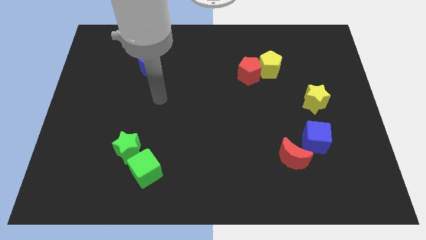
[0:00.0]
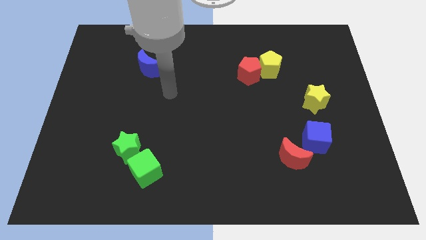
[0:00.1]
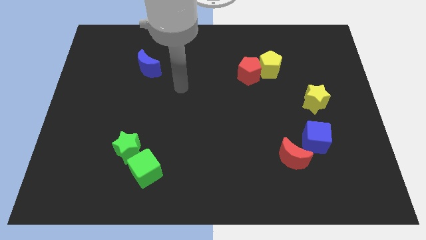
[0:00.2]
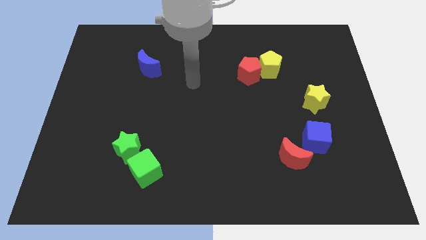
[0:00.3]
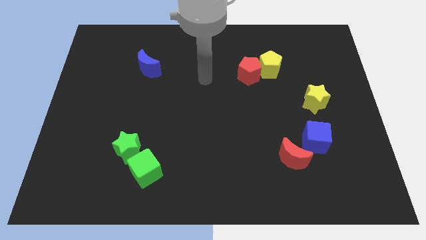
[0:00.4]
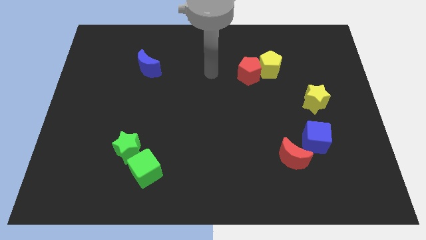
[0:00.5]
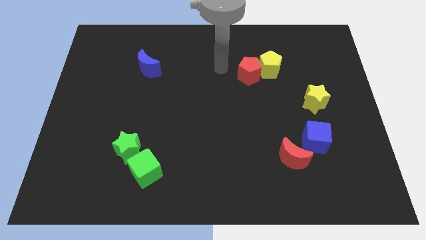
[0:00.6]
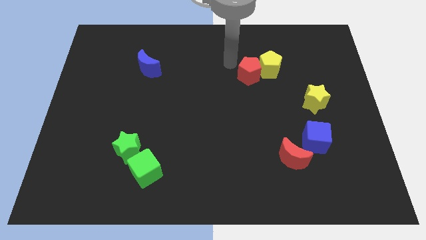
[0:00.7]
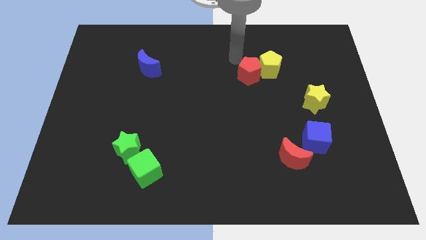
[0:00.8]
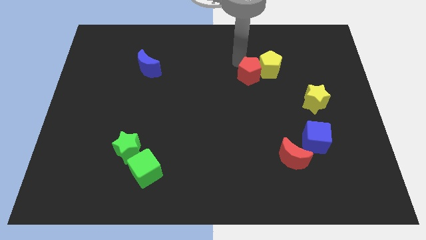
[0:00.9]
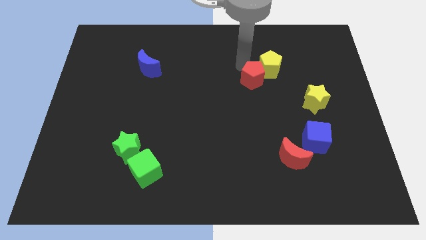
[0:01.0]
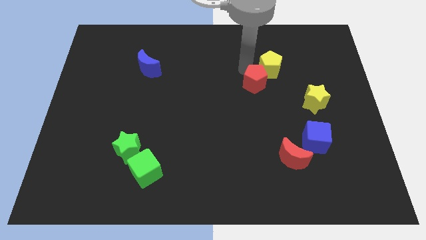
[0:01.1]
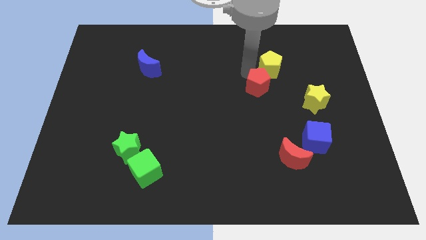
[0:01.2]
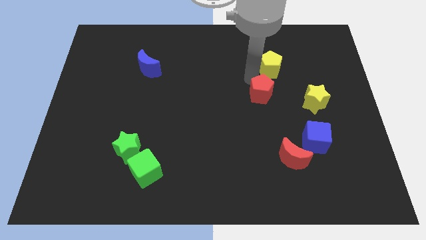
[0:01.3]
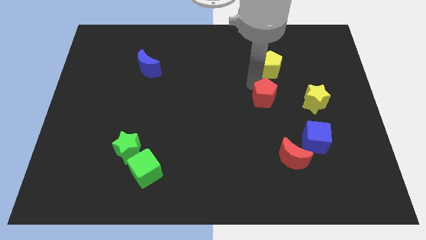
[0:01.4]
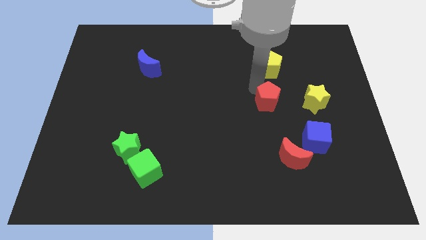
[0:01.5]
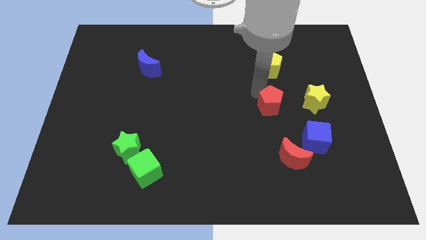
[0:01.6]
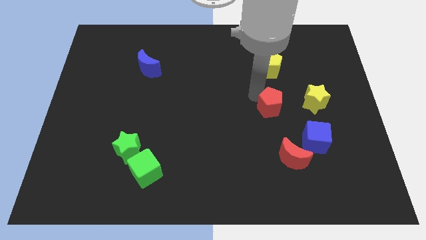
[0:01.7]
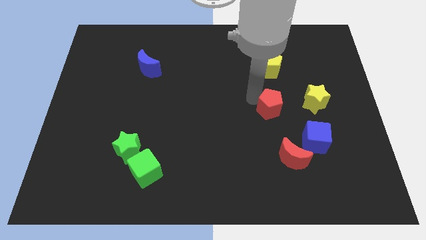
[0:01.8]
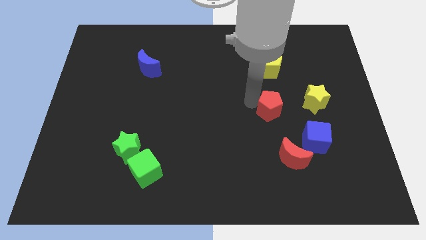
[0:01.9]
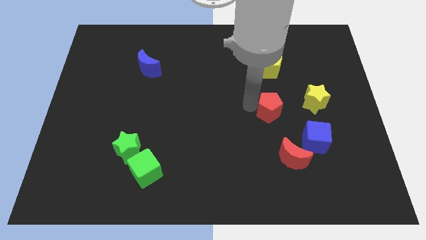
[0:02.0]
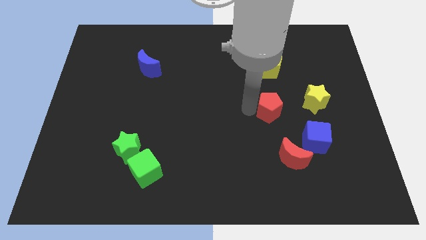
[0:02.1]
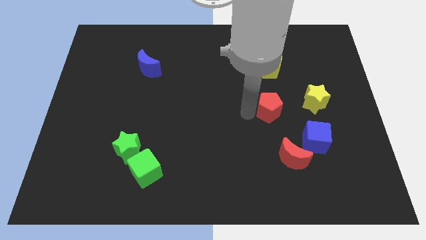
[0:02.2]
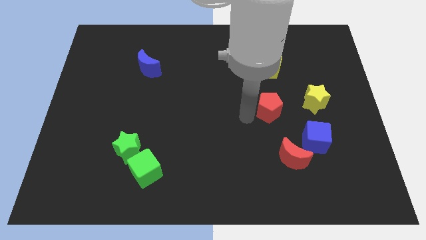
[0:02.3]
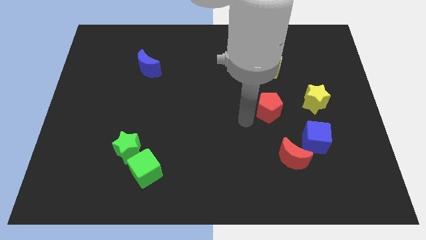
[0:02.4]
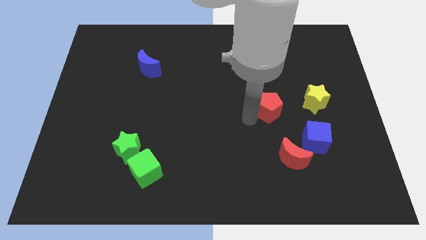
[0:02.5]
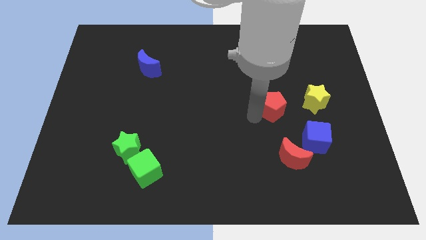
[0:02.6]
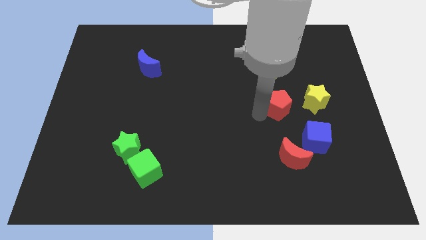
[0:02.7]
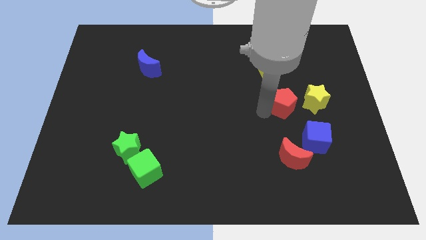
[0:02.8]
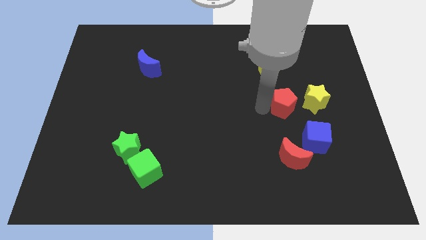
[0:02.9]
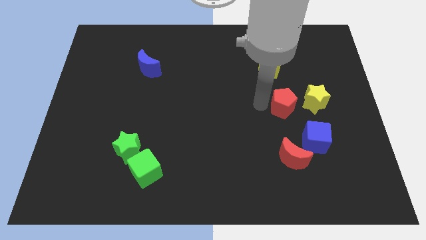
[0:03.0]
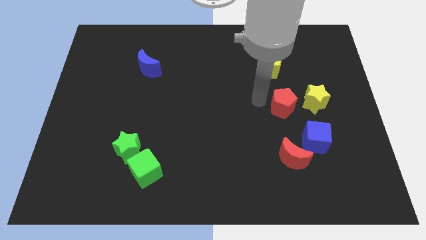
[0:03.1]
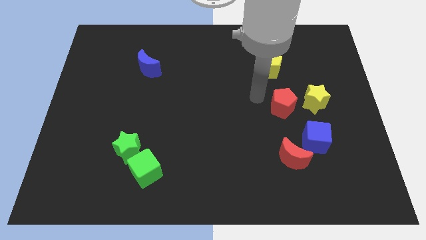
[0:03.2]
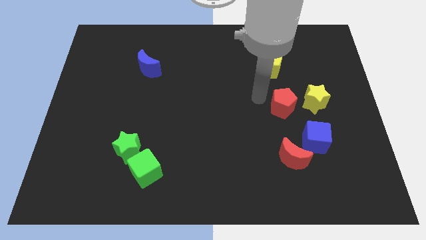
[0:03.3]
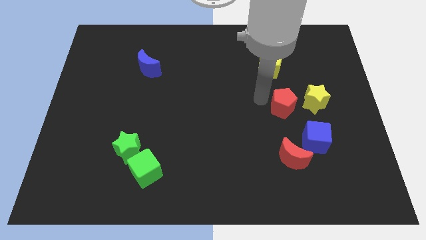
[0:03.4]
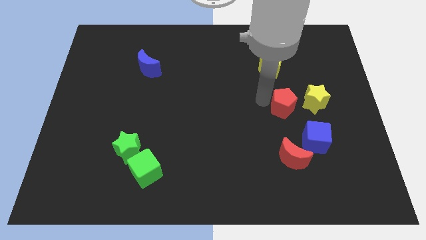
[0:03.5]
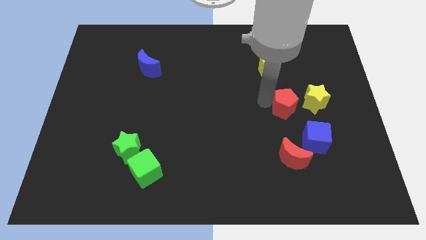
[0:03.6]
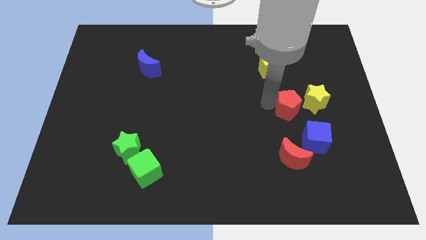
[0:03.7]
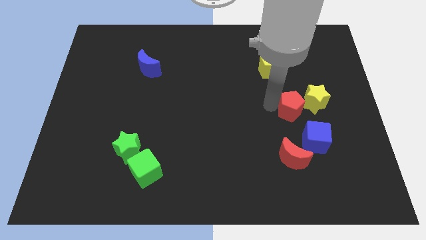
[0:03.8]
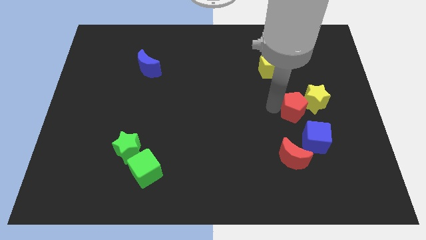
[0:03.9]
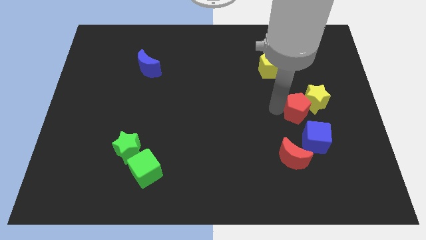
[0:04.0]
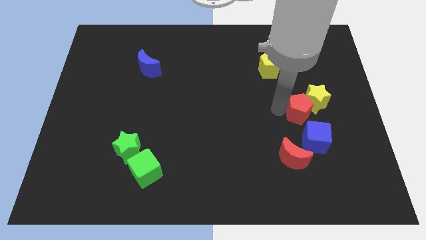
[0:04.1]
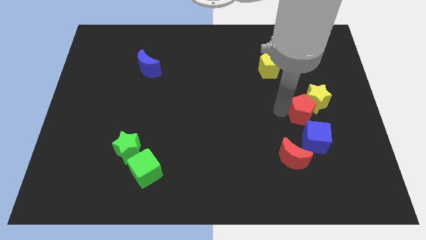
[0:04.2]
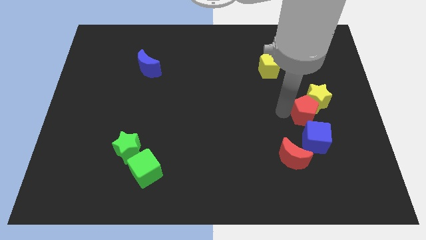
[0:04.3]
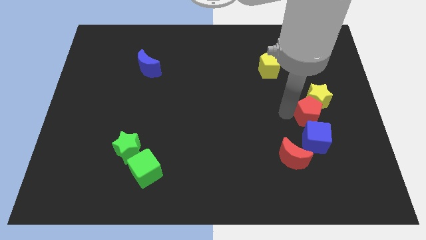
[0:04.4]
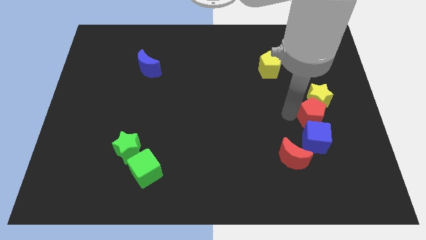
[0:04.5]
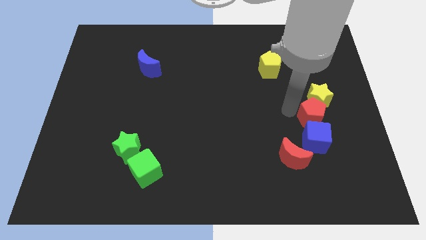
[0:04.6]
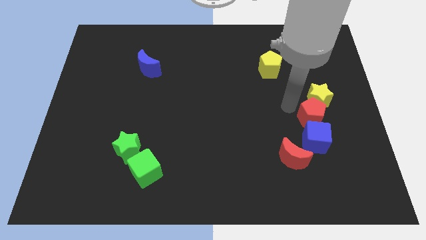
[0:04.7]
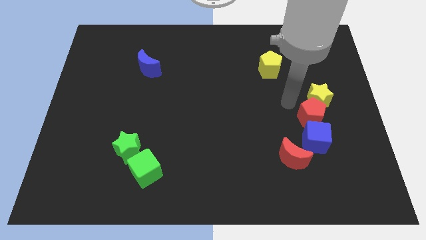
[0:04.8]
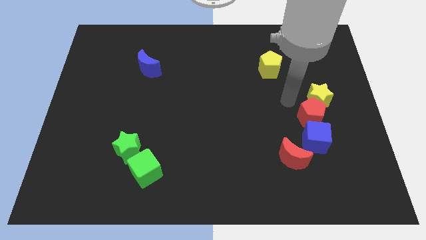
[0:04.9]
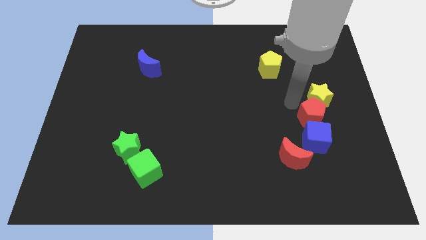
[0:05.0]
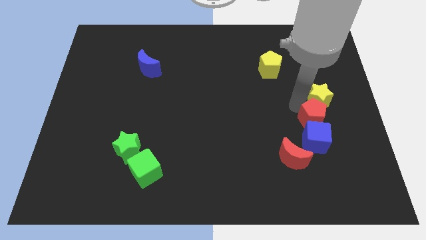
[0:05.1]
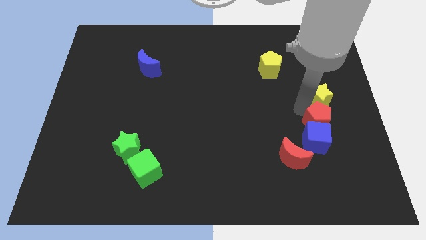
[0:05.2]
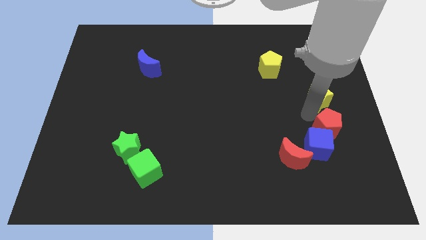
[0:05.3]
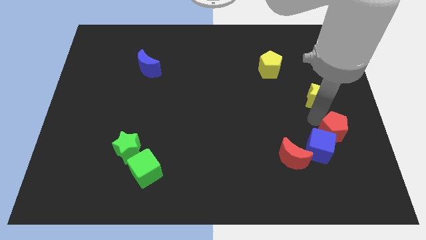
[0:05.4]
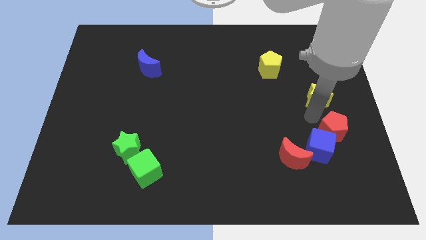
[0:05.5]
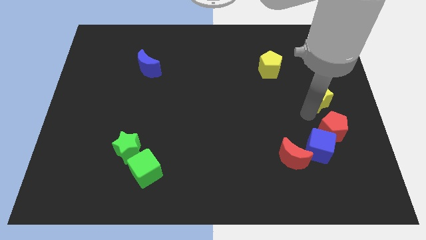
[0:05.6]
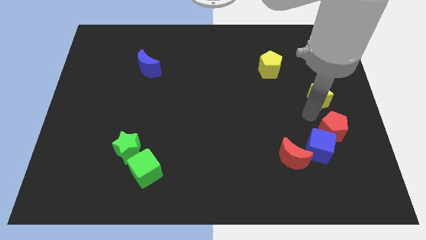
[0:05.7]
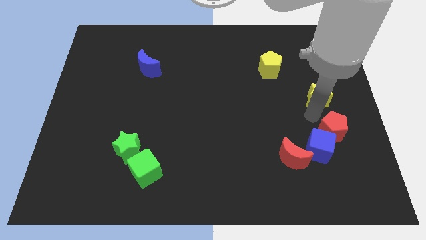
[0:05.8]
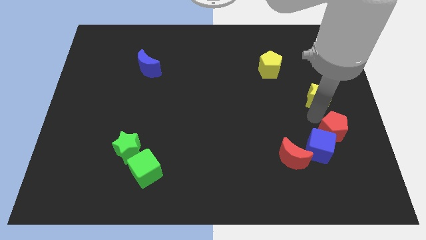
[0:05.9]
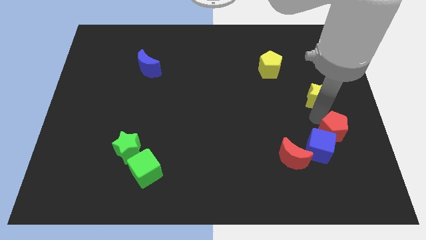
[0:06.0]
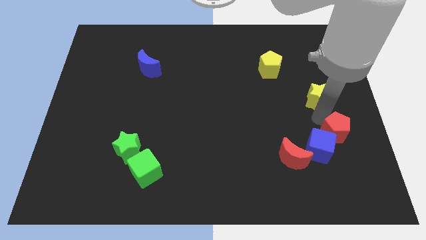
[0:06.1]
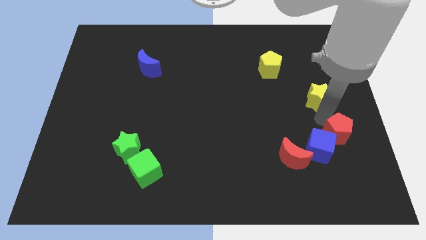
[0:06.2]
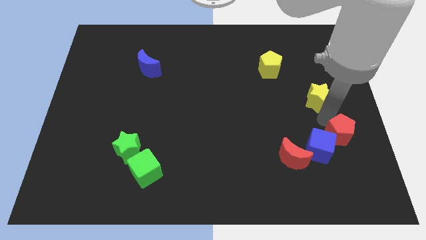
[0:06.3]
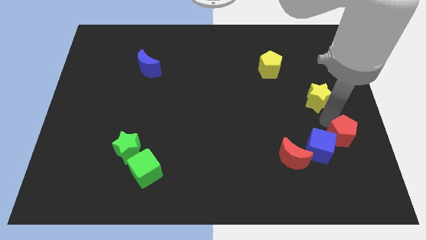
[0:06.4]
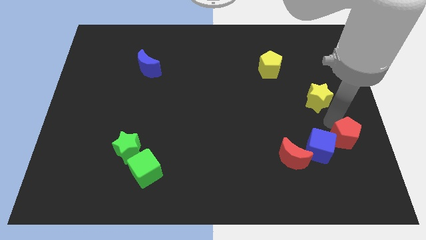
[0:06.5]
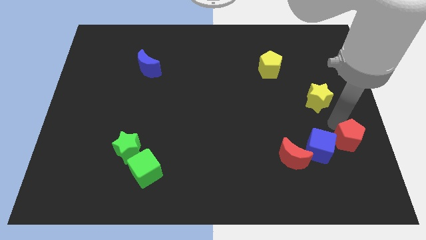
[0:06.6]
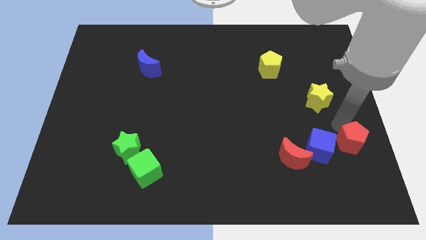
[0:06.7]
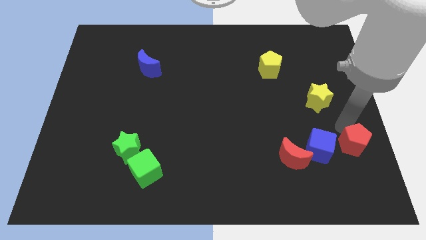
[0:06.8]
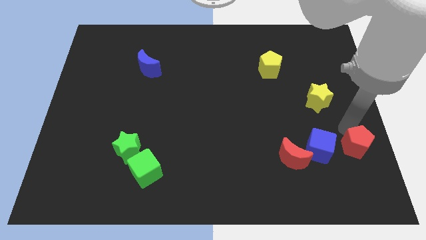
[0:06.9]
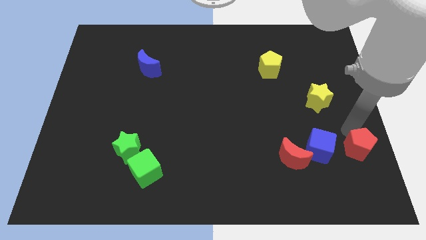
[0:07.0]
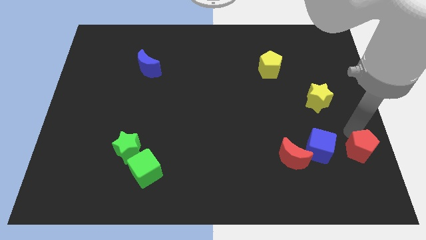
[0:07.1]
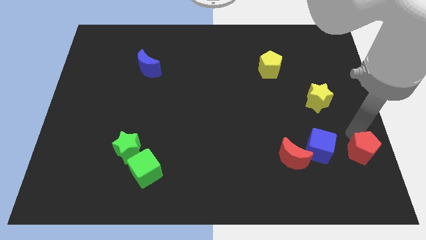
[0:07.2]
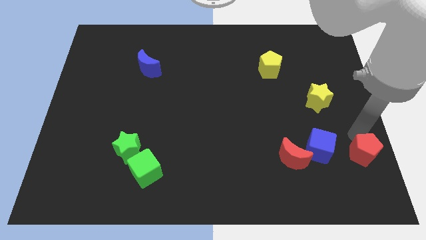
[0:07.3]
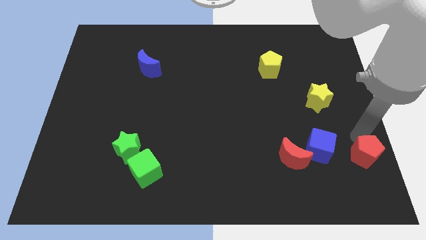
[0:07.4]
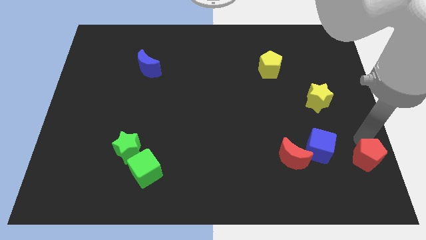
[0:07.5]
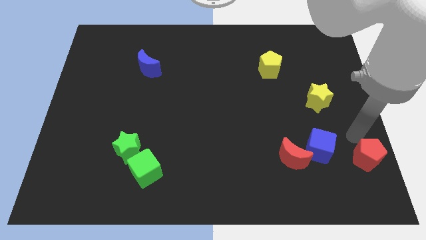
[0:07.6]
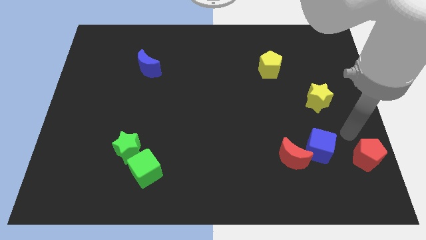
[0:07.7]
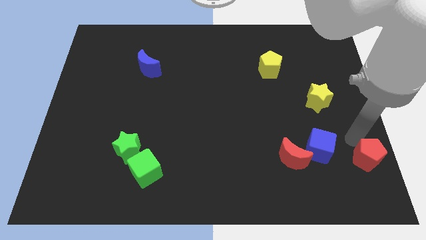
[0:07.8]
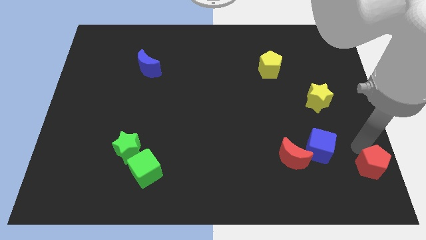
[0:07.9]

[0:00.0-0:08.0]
slide the red pentagon to the bottom right

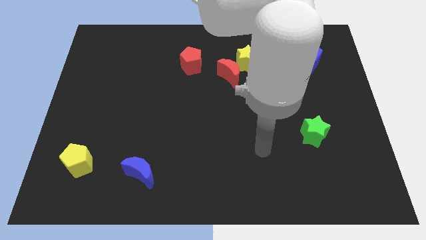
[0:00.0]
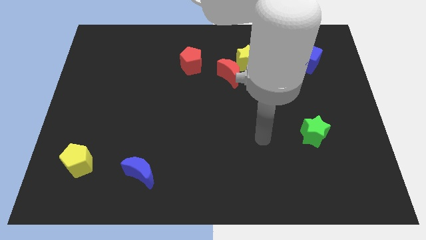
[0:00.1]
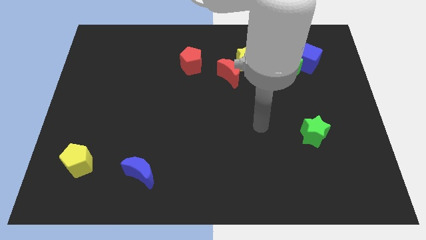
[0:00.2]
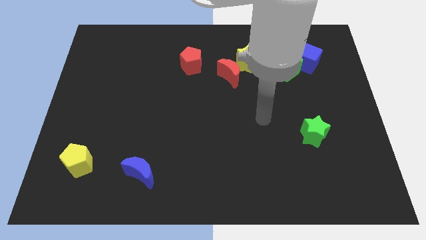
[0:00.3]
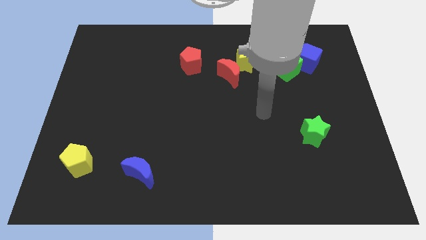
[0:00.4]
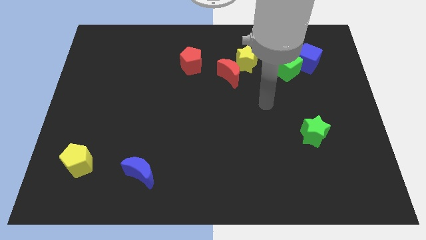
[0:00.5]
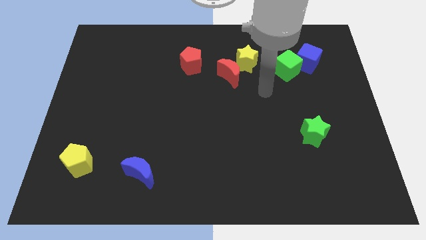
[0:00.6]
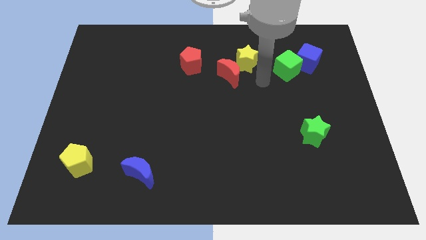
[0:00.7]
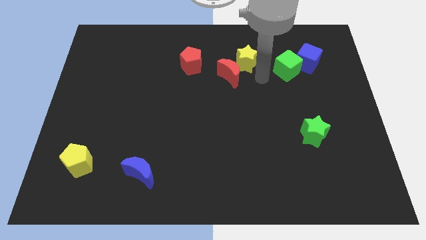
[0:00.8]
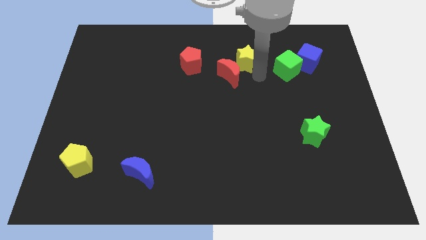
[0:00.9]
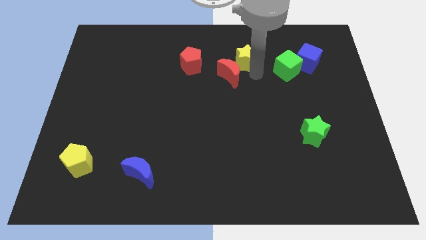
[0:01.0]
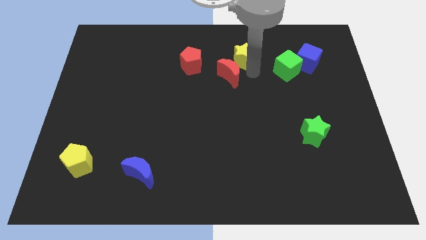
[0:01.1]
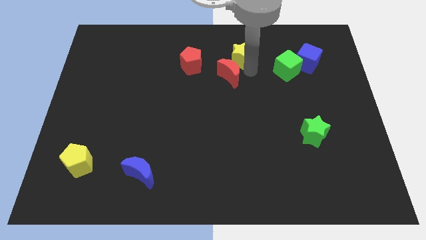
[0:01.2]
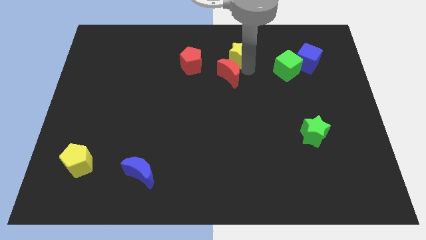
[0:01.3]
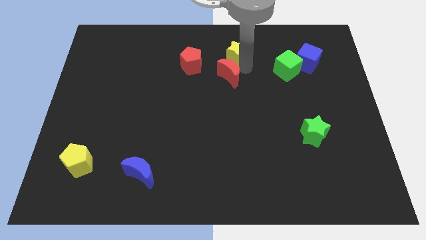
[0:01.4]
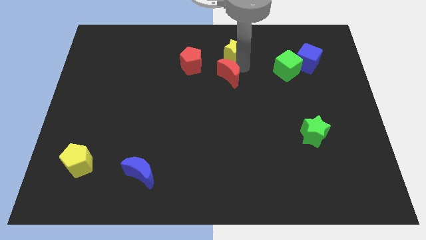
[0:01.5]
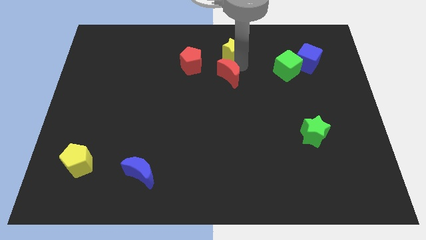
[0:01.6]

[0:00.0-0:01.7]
put the yellow star to the top
